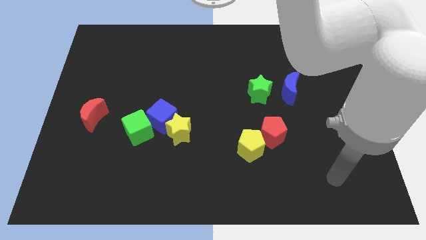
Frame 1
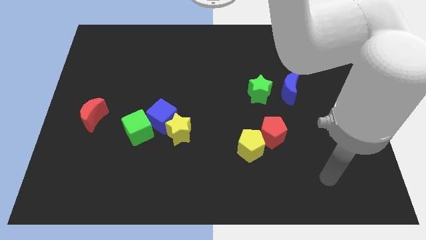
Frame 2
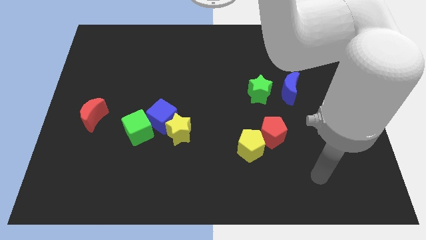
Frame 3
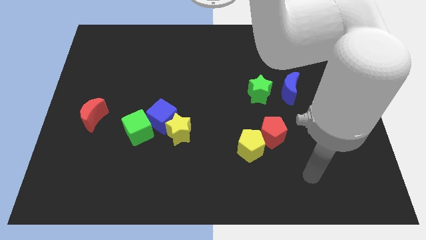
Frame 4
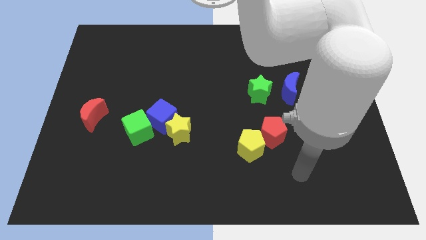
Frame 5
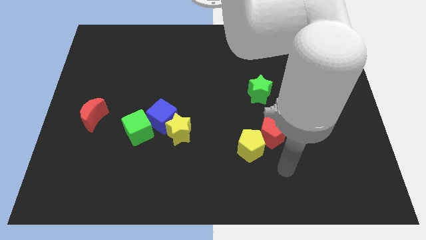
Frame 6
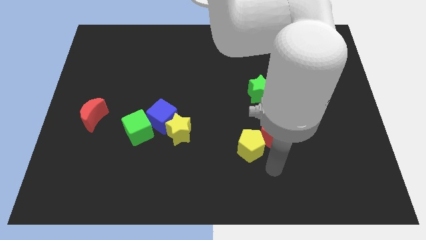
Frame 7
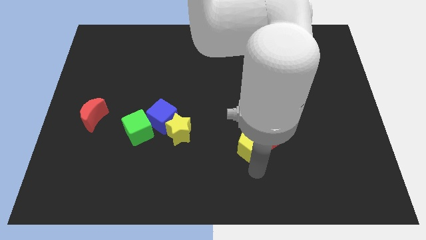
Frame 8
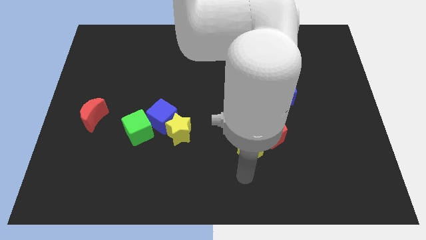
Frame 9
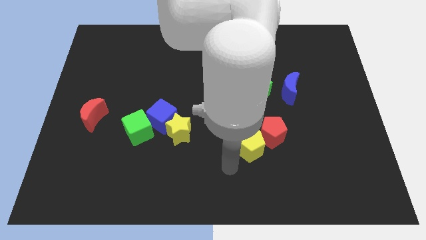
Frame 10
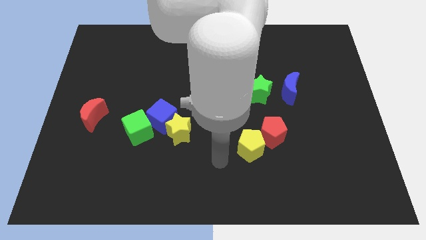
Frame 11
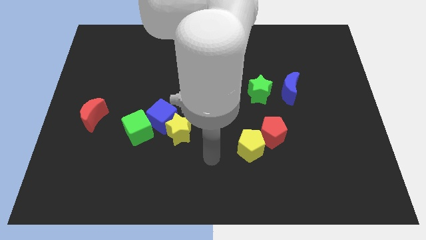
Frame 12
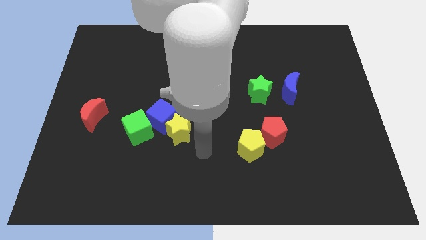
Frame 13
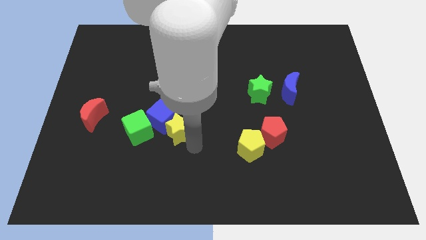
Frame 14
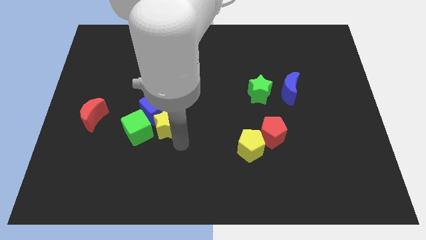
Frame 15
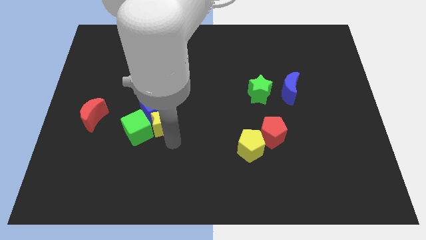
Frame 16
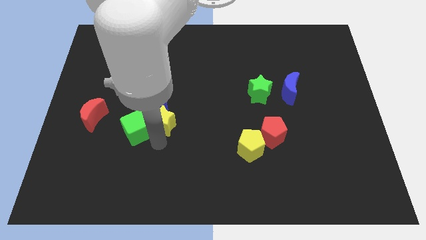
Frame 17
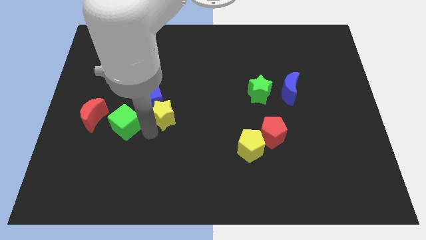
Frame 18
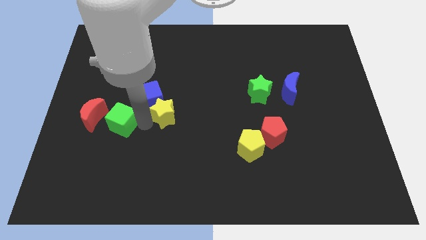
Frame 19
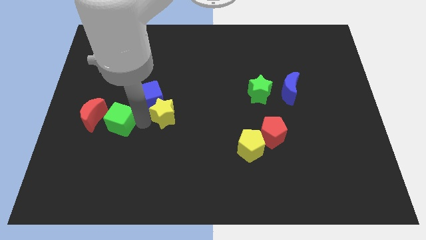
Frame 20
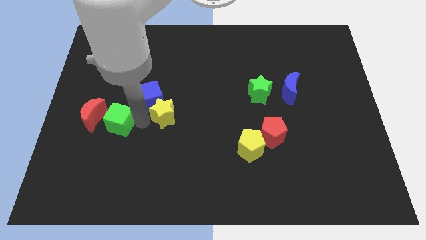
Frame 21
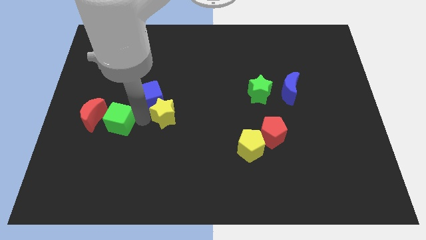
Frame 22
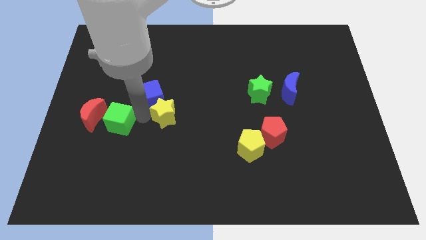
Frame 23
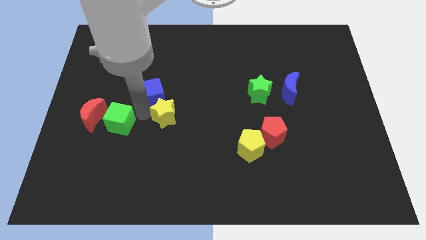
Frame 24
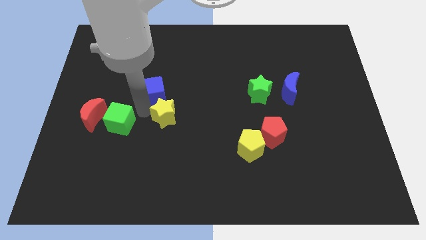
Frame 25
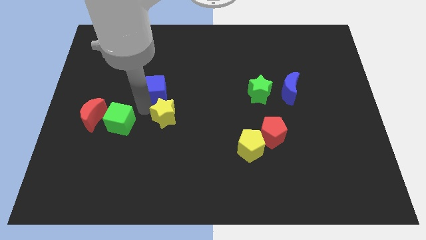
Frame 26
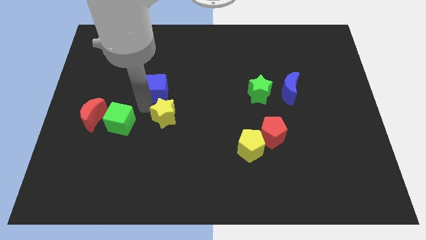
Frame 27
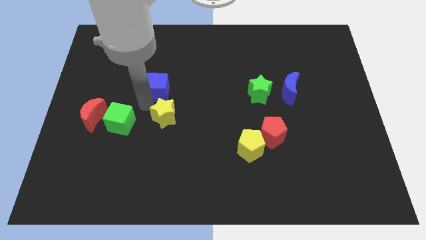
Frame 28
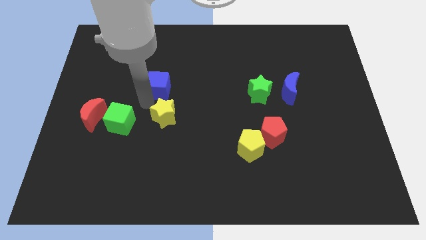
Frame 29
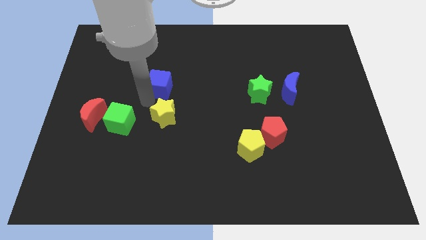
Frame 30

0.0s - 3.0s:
separate the blue cube from the yellow star and green cube

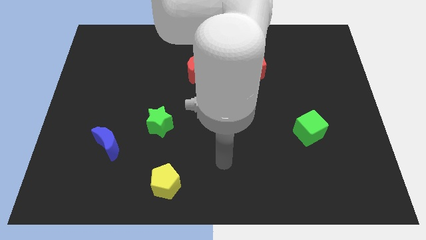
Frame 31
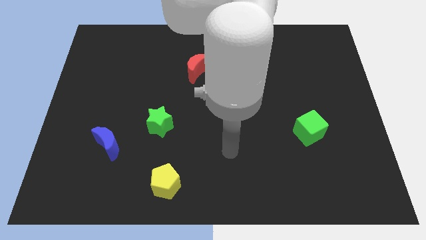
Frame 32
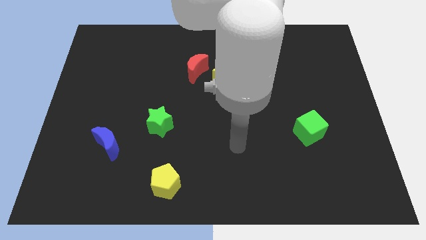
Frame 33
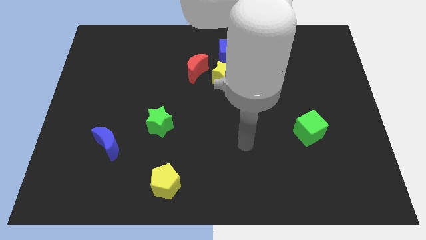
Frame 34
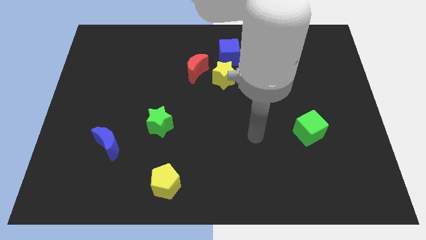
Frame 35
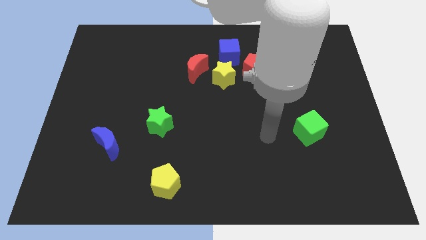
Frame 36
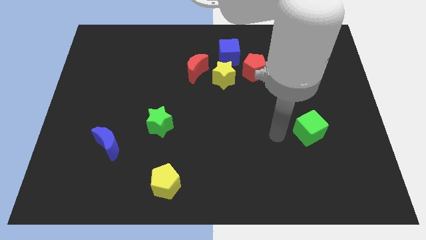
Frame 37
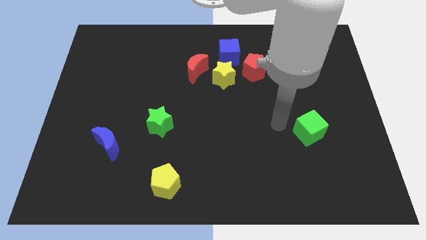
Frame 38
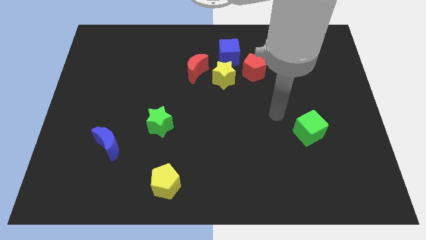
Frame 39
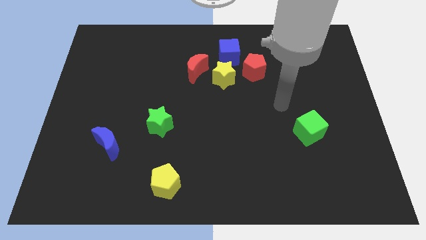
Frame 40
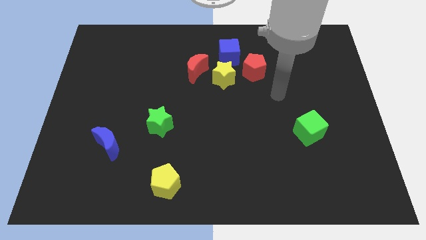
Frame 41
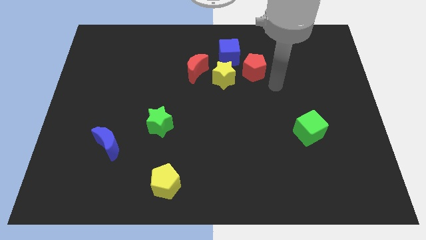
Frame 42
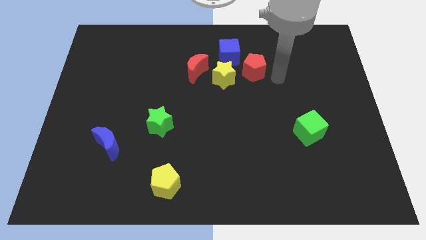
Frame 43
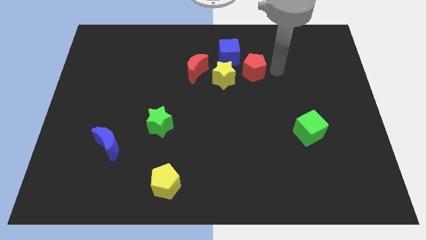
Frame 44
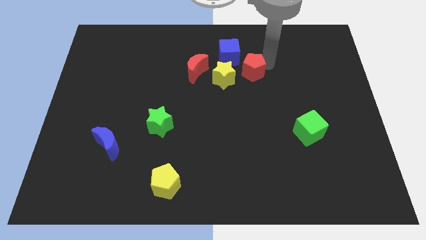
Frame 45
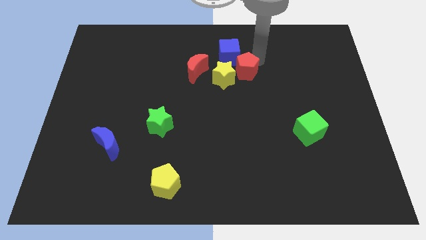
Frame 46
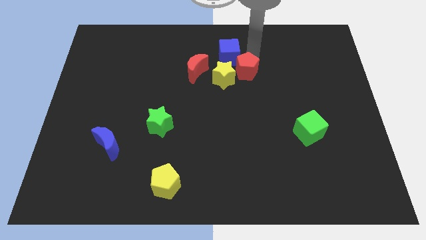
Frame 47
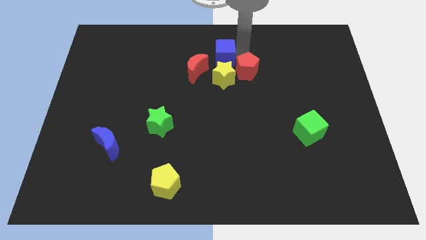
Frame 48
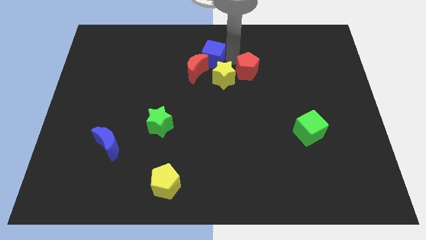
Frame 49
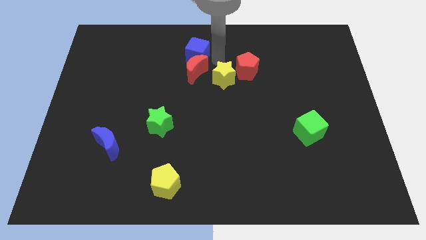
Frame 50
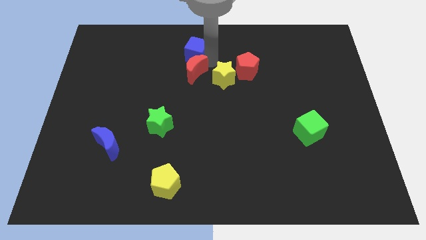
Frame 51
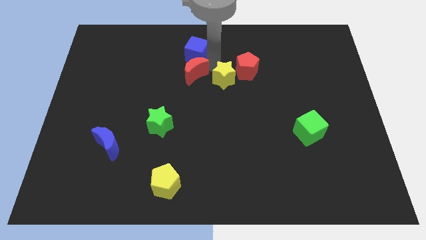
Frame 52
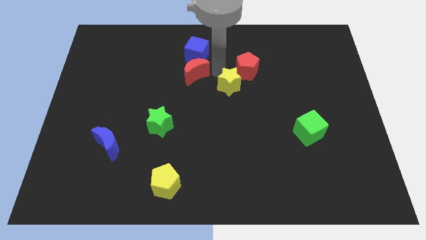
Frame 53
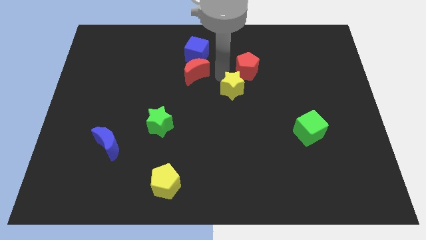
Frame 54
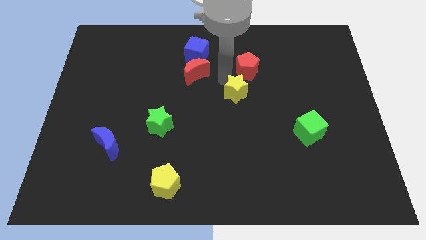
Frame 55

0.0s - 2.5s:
move the yellow star away from the group of blocks

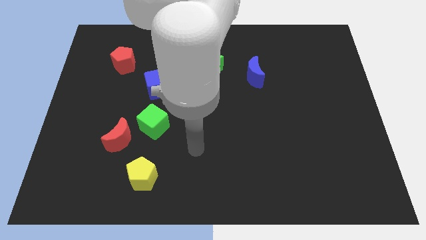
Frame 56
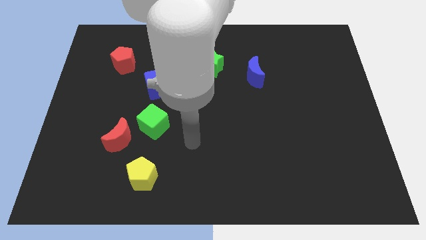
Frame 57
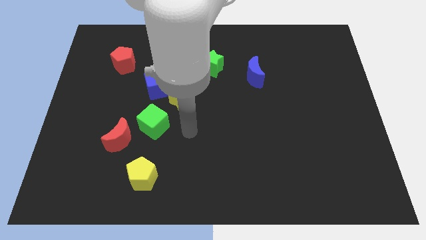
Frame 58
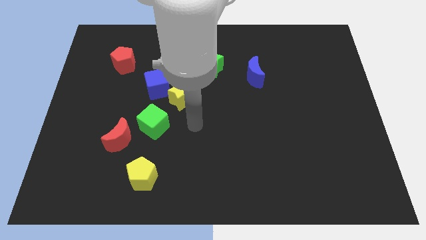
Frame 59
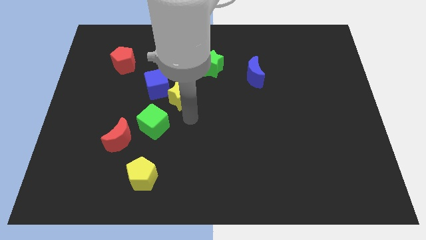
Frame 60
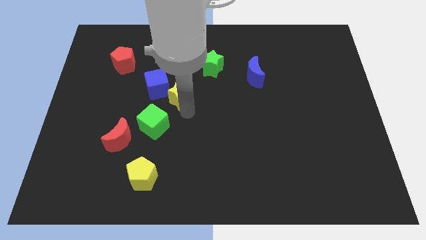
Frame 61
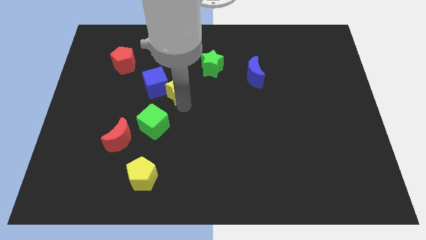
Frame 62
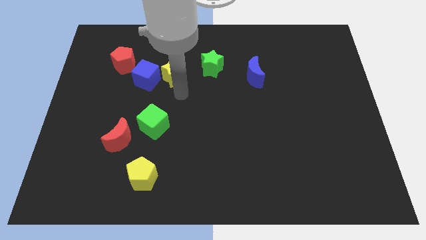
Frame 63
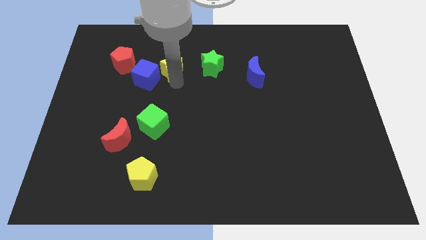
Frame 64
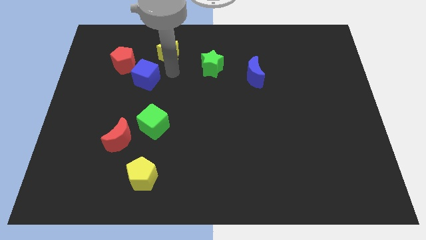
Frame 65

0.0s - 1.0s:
pull the blue cube apart from the yellow star

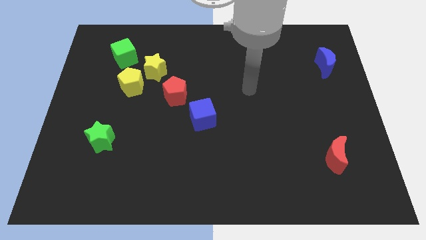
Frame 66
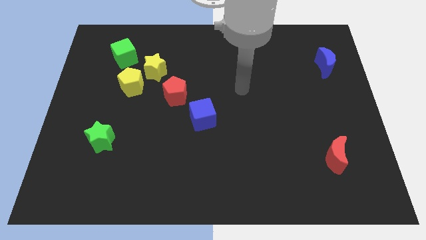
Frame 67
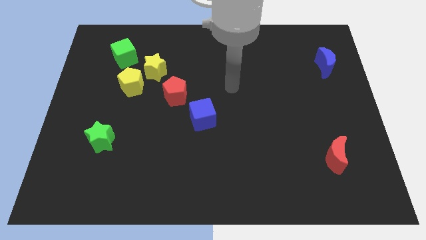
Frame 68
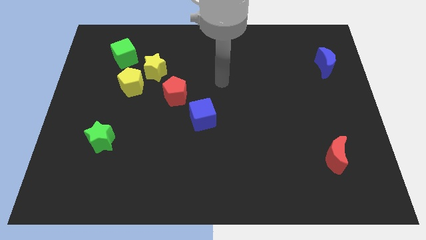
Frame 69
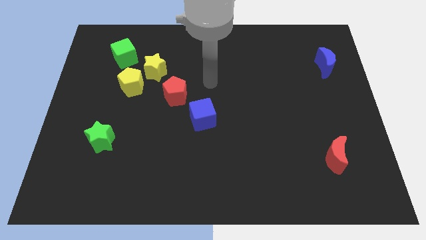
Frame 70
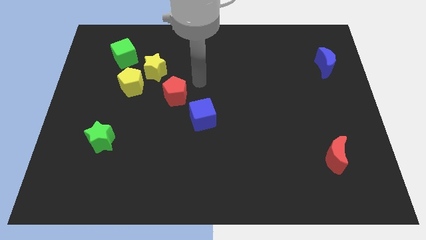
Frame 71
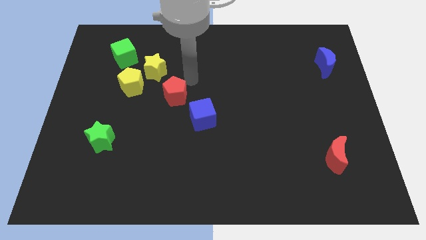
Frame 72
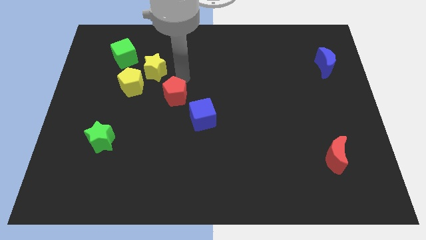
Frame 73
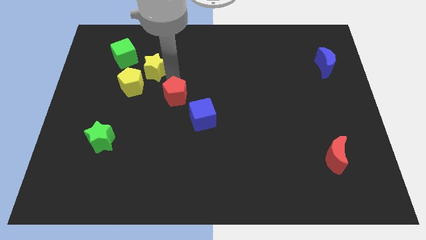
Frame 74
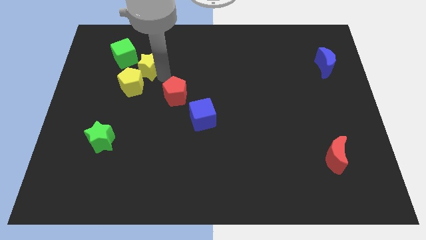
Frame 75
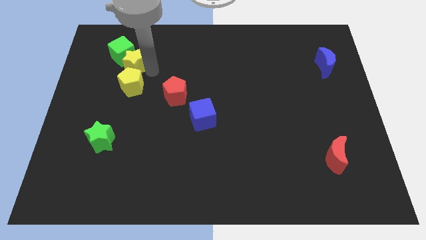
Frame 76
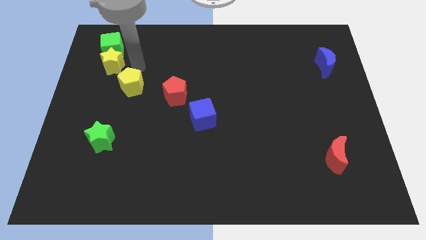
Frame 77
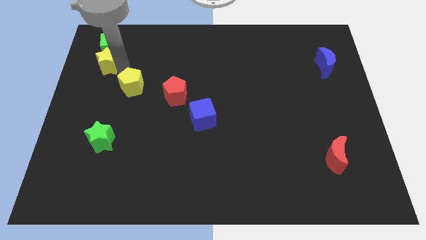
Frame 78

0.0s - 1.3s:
separate the yellow pentagon from the yellow star

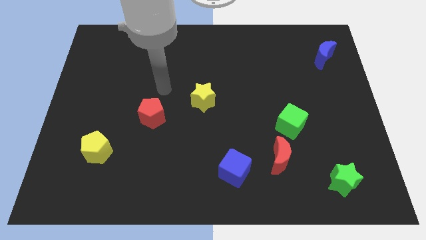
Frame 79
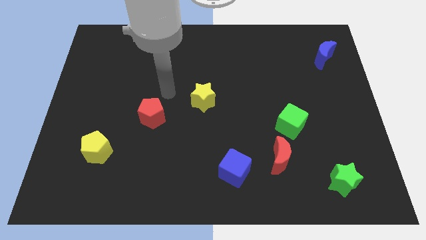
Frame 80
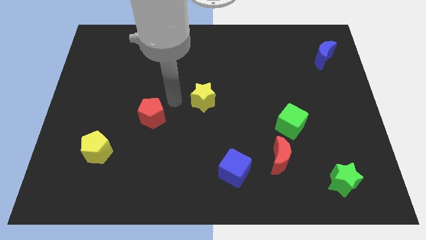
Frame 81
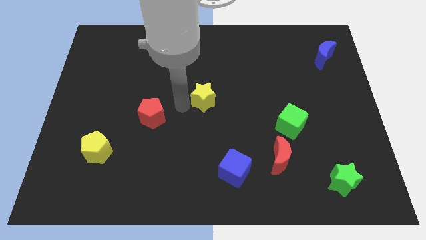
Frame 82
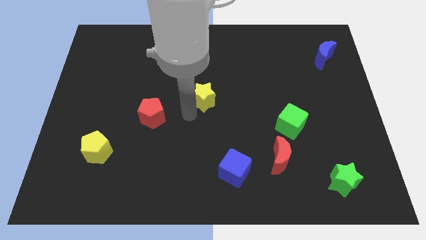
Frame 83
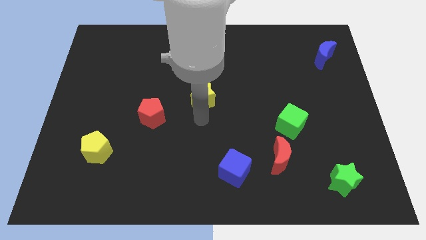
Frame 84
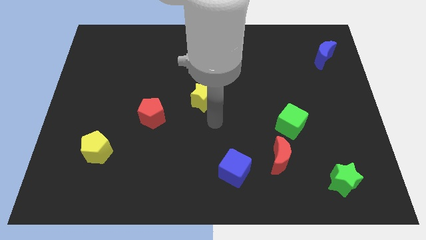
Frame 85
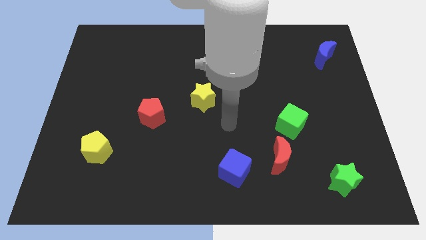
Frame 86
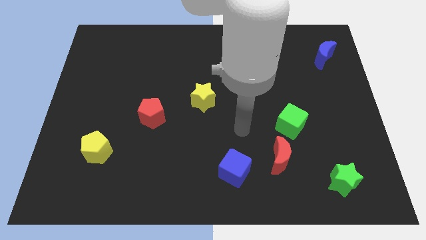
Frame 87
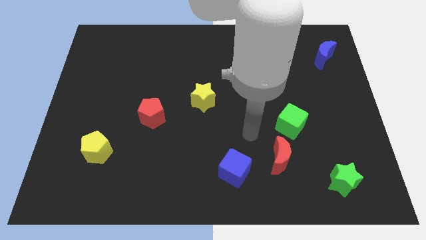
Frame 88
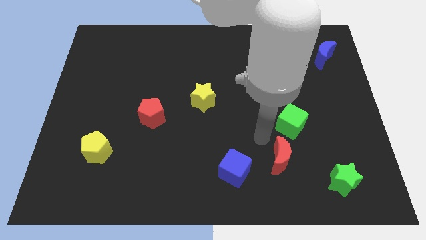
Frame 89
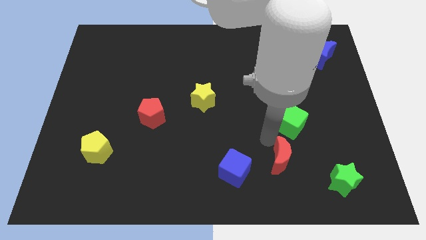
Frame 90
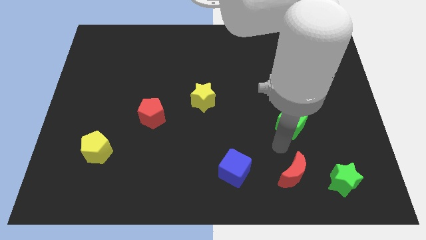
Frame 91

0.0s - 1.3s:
move the green cube away from the red moon

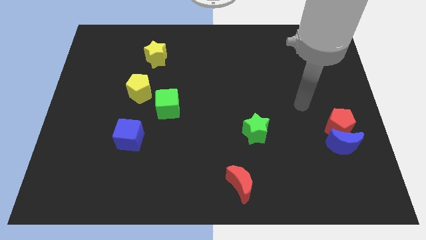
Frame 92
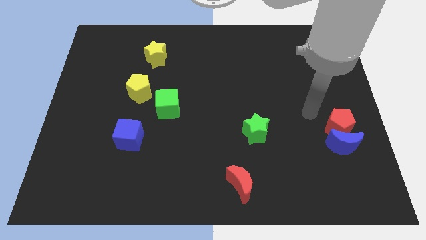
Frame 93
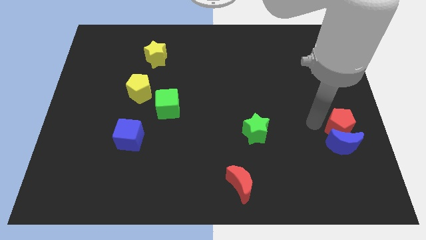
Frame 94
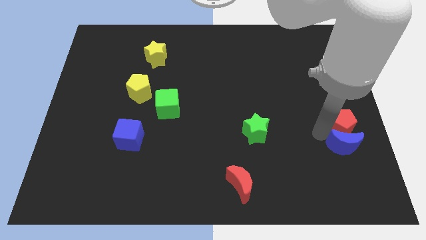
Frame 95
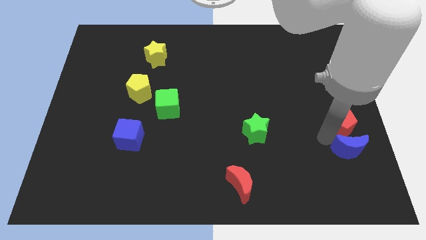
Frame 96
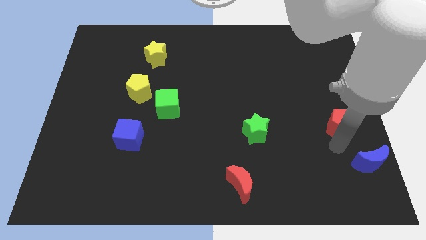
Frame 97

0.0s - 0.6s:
move the red pentagon away from the blue moon
